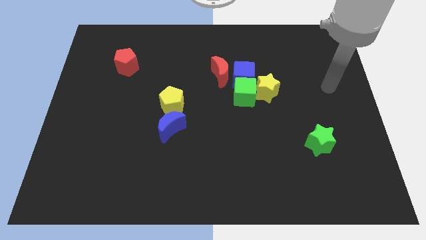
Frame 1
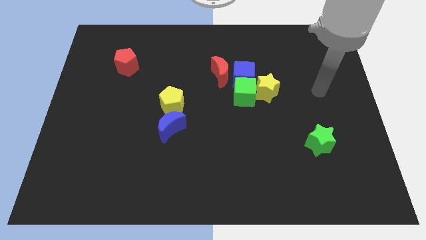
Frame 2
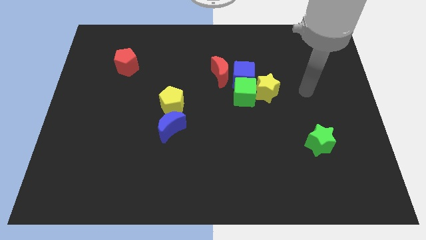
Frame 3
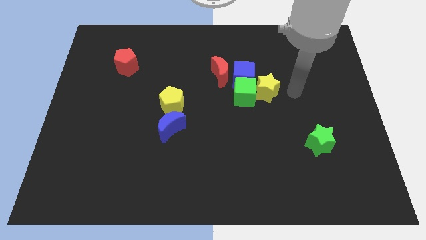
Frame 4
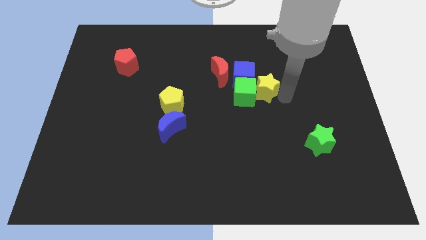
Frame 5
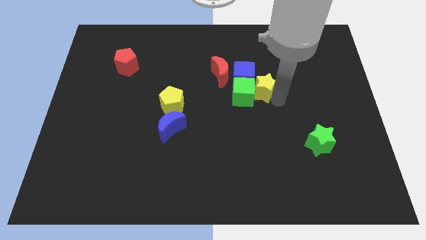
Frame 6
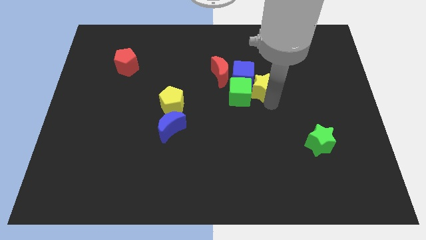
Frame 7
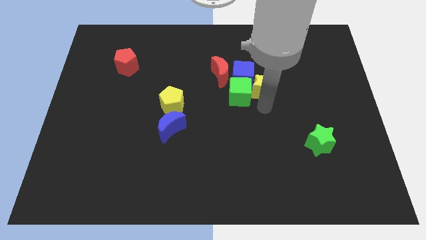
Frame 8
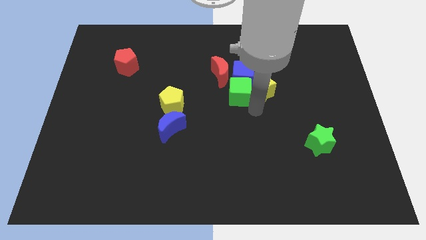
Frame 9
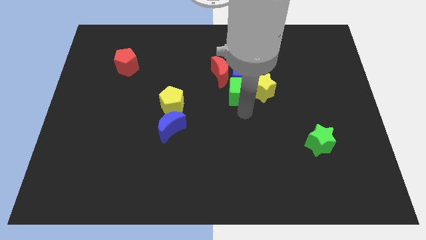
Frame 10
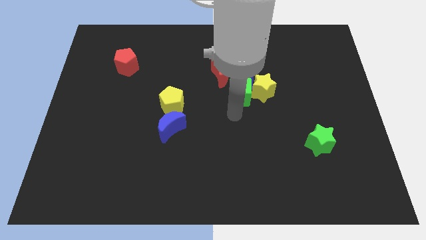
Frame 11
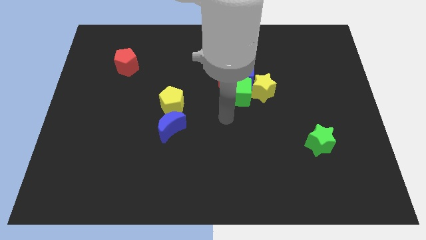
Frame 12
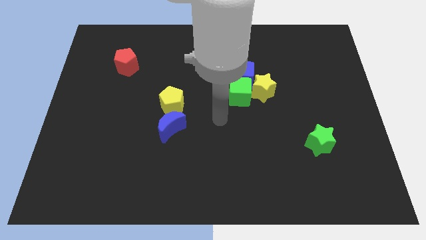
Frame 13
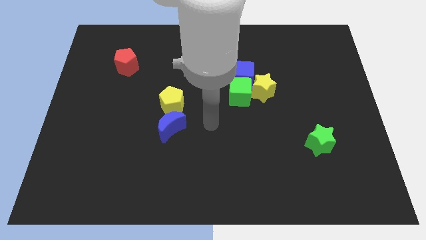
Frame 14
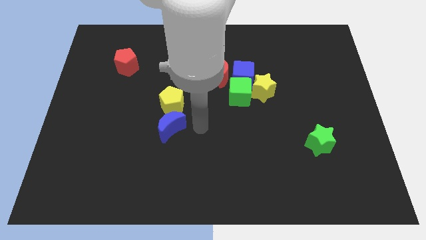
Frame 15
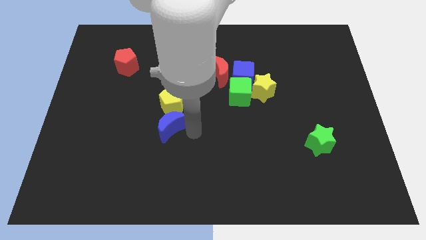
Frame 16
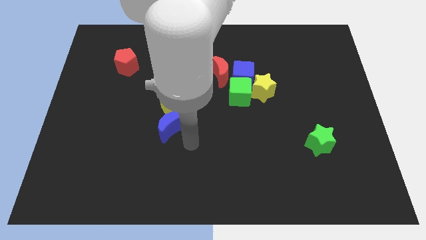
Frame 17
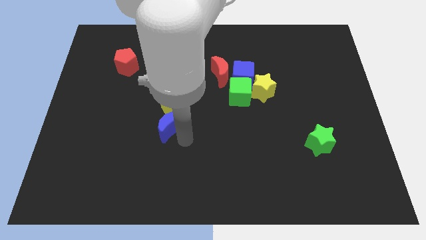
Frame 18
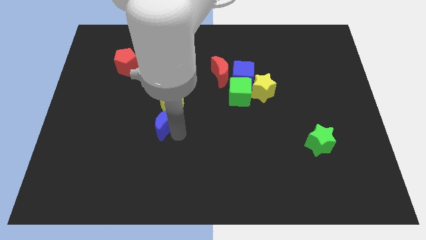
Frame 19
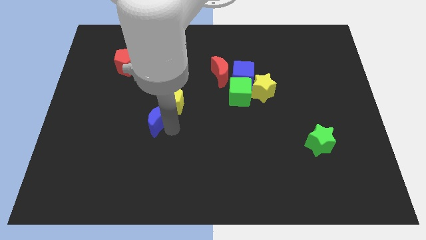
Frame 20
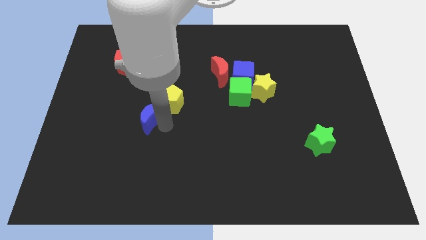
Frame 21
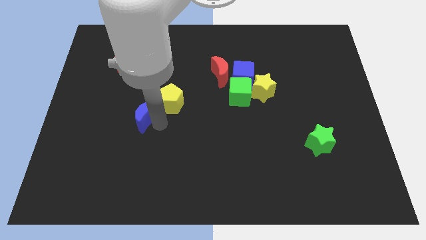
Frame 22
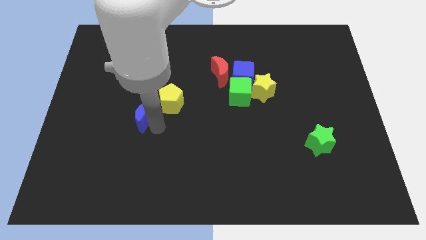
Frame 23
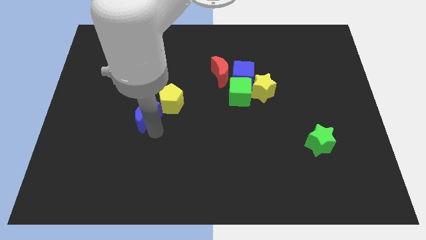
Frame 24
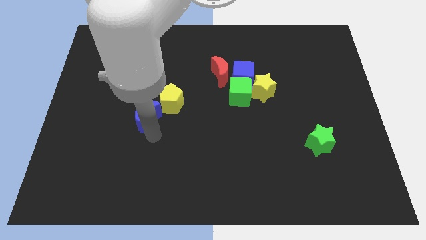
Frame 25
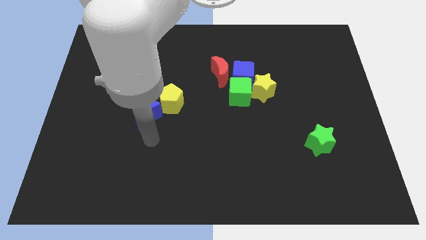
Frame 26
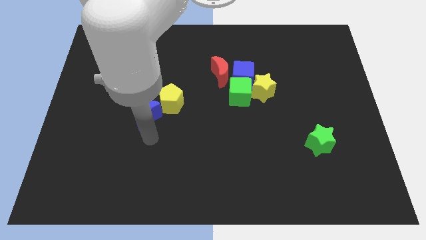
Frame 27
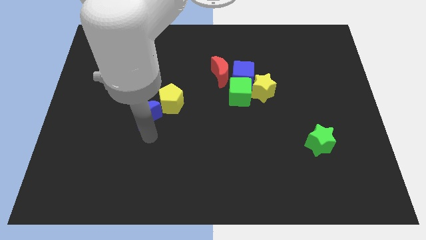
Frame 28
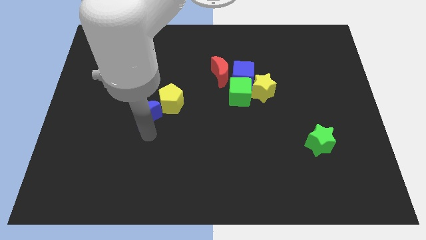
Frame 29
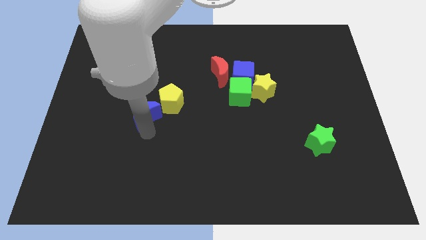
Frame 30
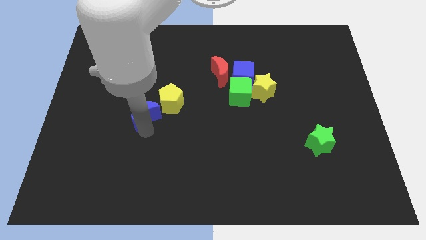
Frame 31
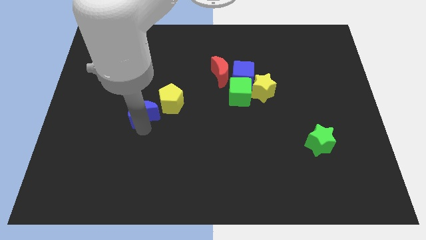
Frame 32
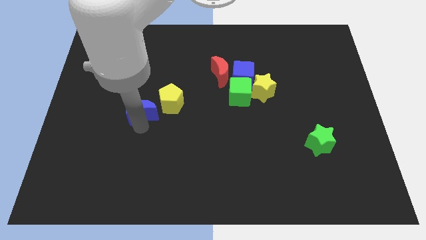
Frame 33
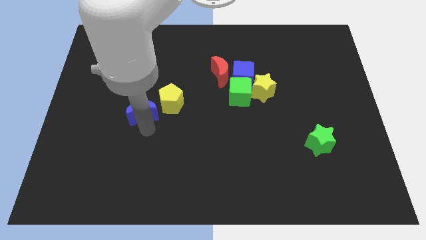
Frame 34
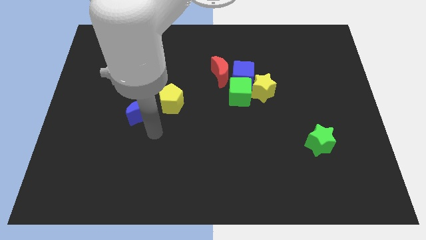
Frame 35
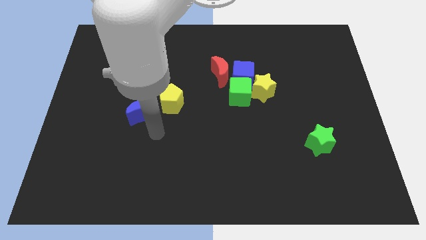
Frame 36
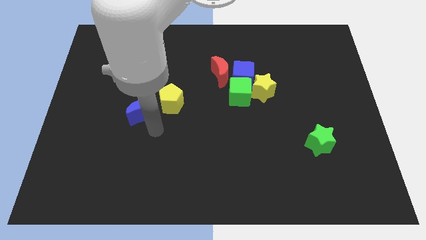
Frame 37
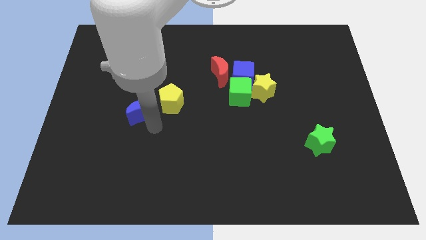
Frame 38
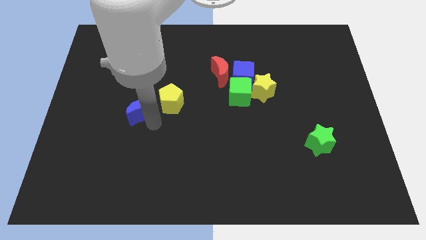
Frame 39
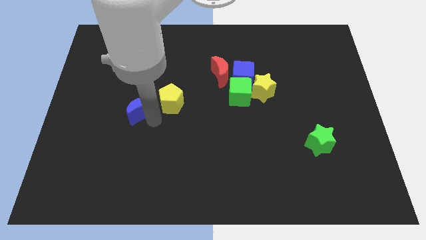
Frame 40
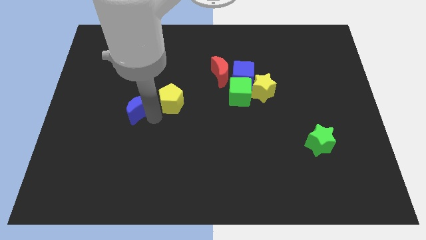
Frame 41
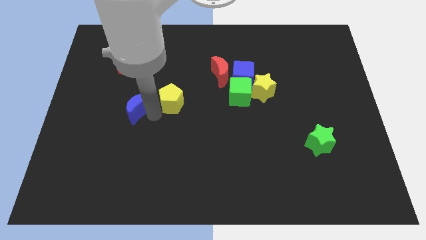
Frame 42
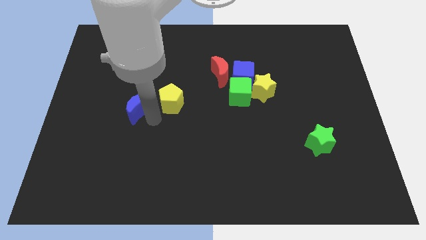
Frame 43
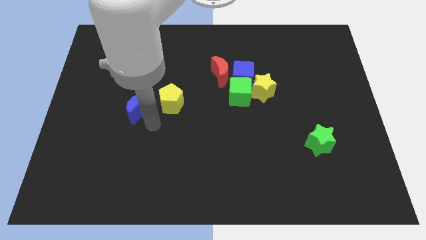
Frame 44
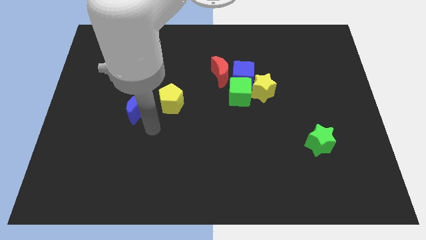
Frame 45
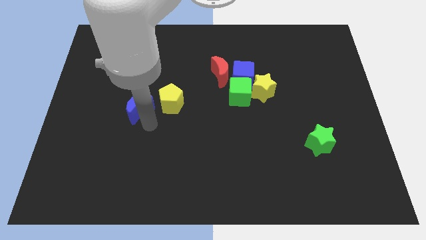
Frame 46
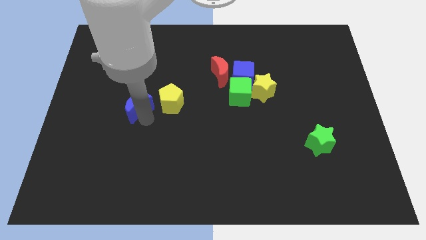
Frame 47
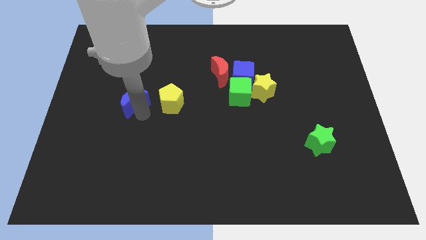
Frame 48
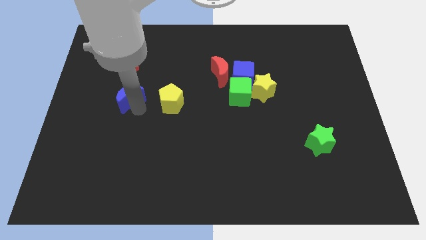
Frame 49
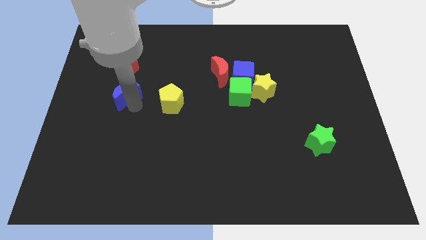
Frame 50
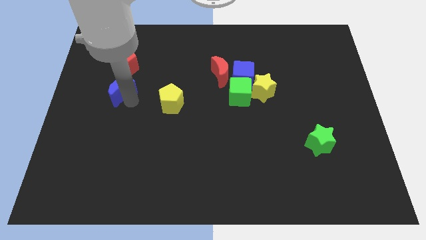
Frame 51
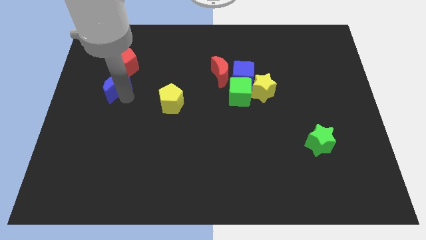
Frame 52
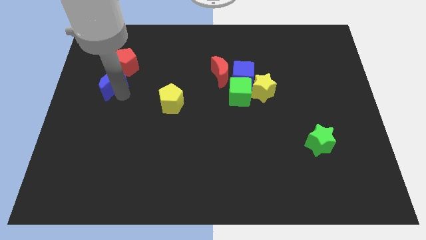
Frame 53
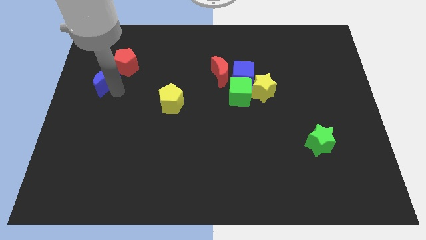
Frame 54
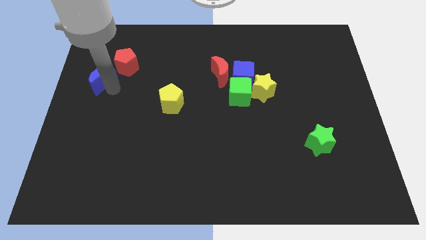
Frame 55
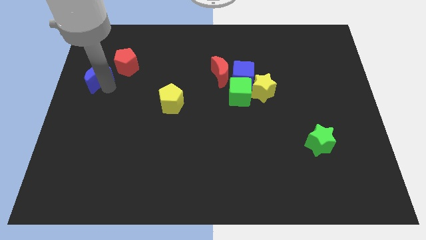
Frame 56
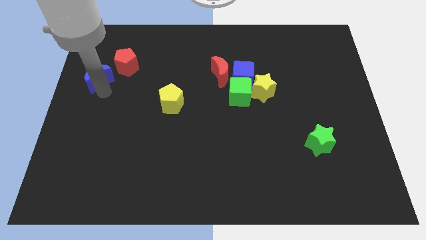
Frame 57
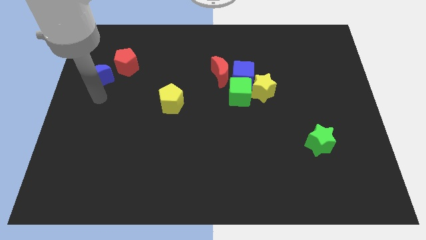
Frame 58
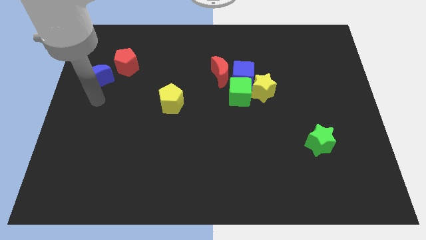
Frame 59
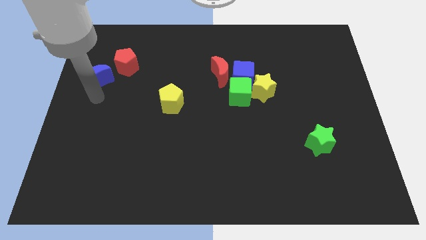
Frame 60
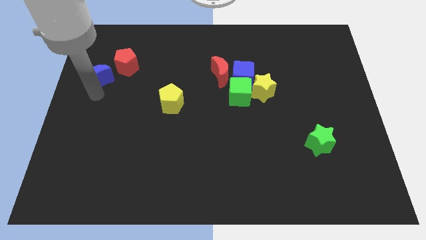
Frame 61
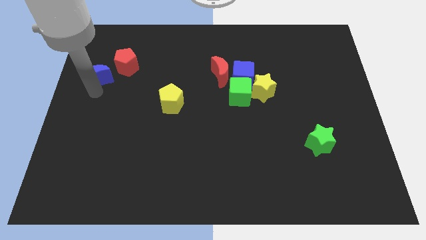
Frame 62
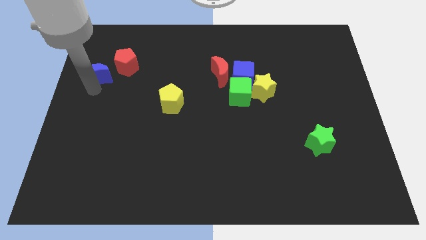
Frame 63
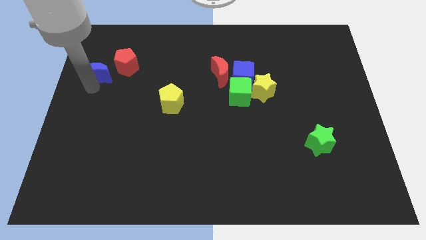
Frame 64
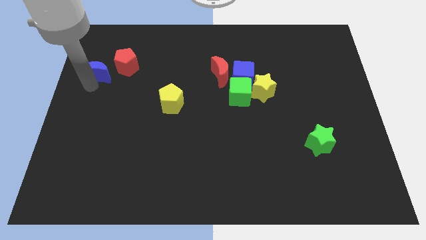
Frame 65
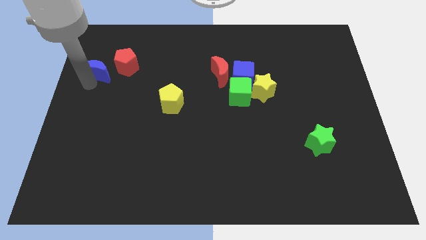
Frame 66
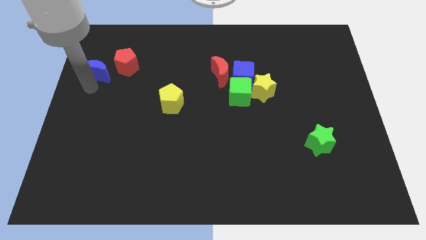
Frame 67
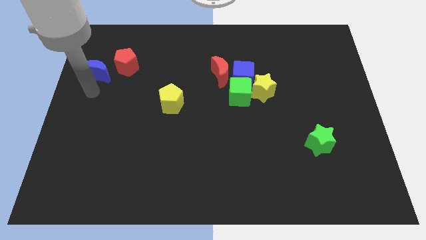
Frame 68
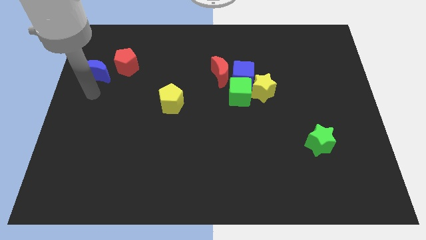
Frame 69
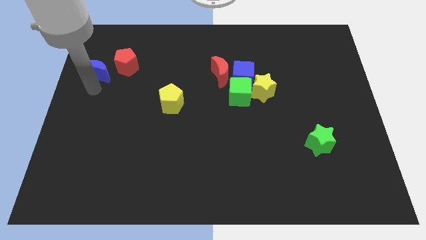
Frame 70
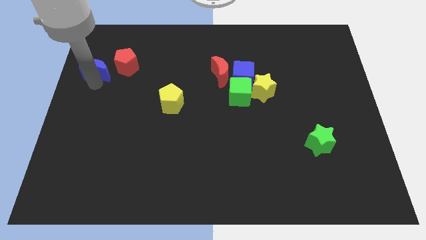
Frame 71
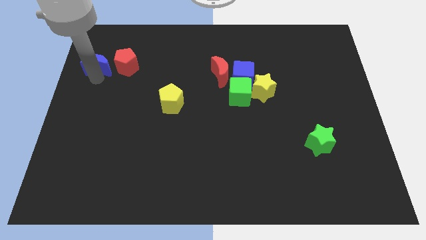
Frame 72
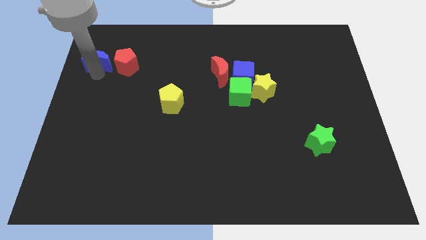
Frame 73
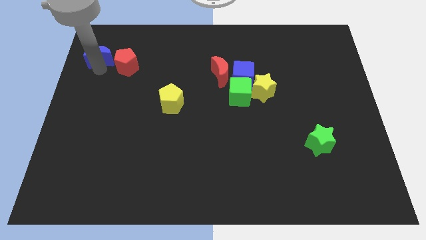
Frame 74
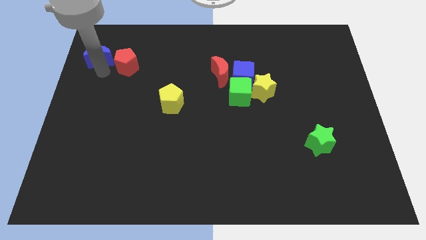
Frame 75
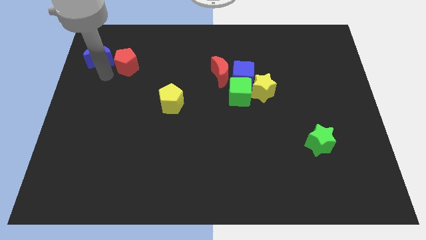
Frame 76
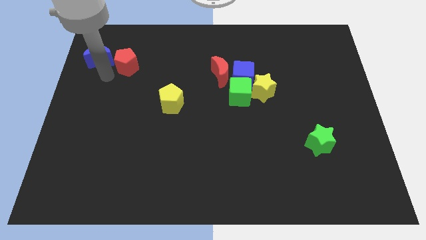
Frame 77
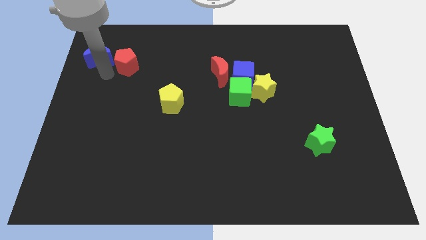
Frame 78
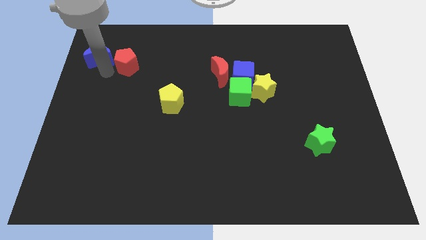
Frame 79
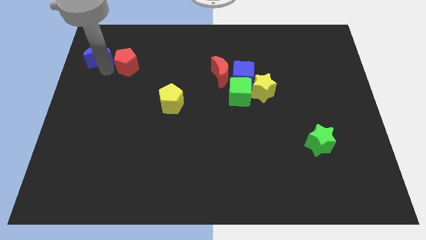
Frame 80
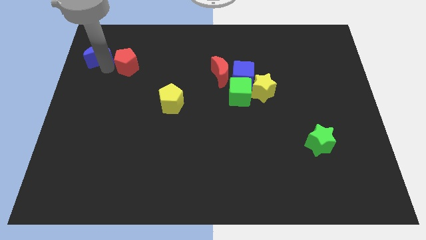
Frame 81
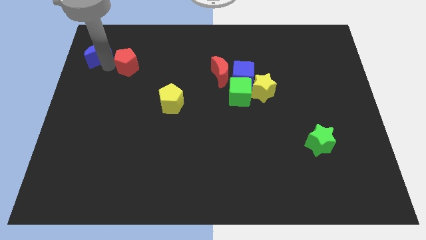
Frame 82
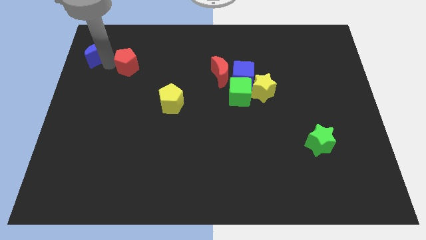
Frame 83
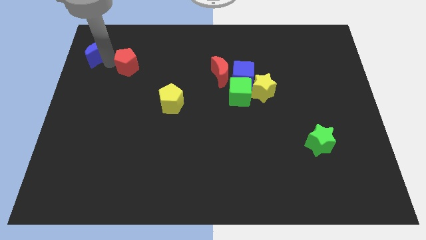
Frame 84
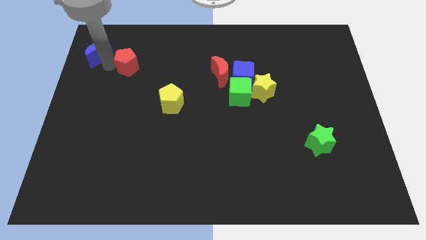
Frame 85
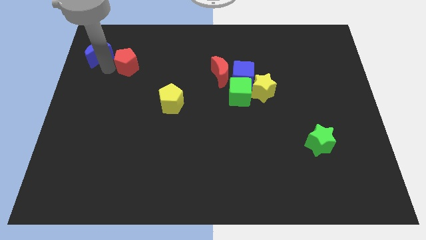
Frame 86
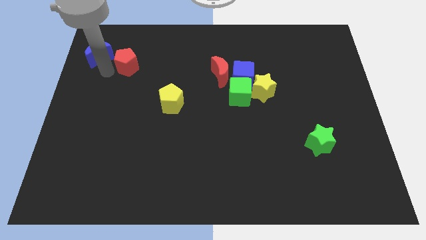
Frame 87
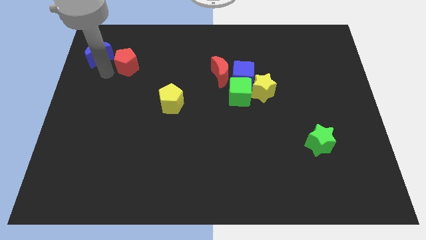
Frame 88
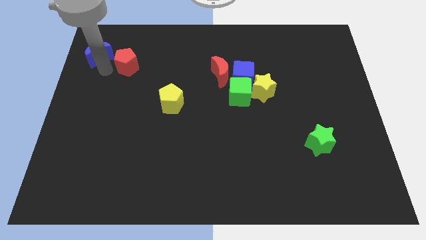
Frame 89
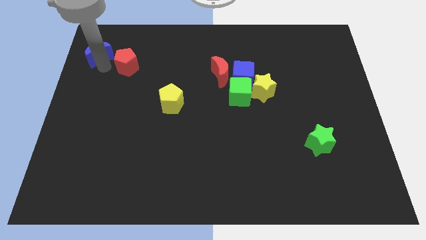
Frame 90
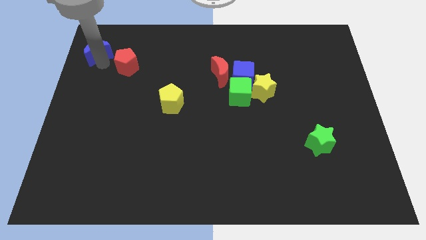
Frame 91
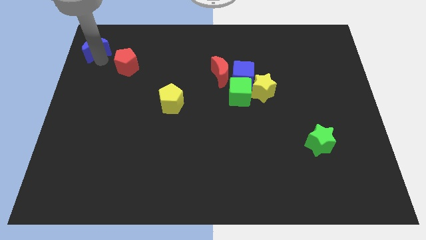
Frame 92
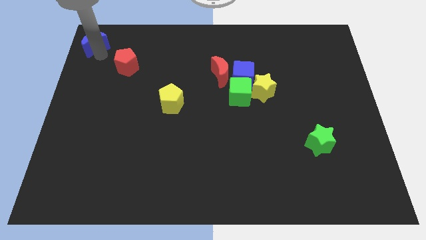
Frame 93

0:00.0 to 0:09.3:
put the blue moon to the top left of the board
